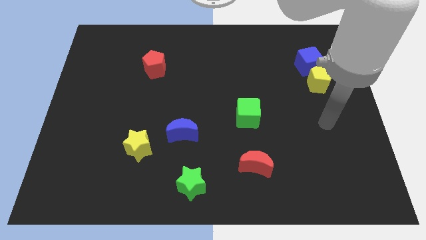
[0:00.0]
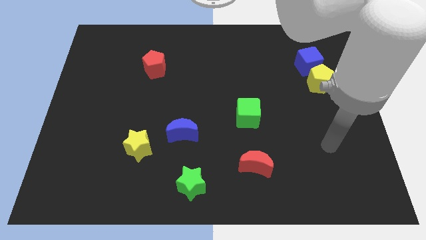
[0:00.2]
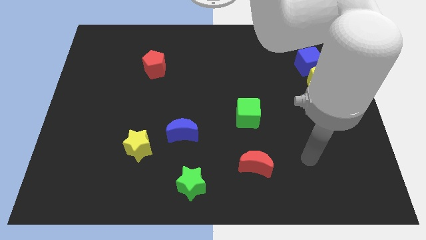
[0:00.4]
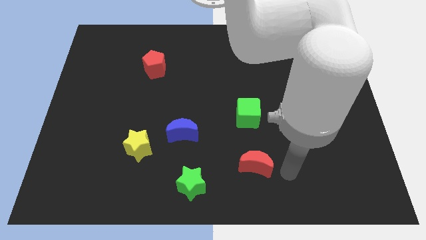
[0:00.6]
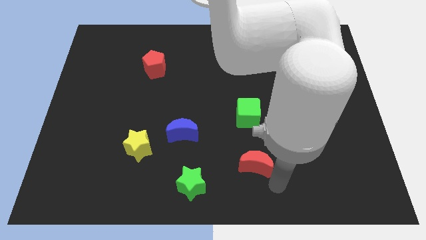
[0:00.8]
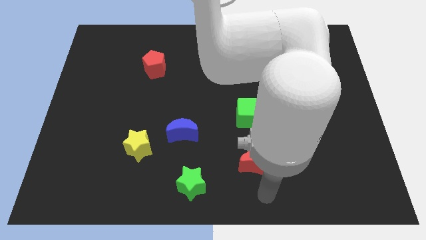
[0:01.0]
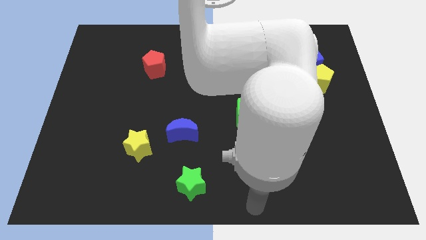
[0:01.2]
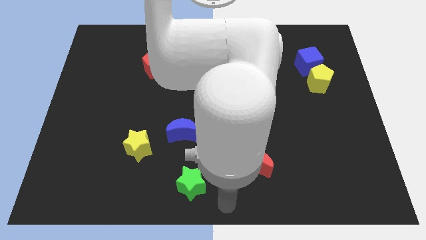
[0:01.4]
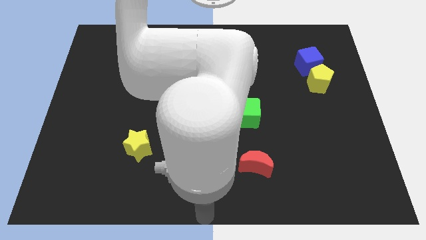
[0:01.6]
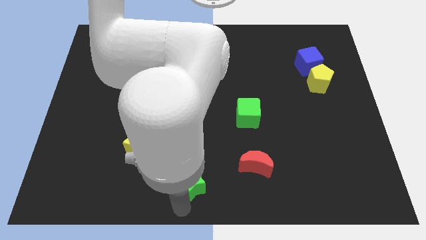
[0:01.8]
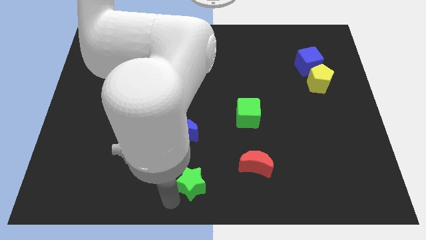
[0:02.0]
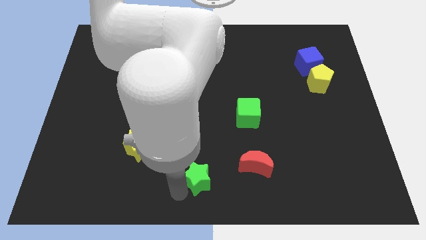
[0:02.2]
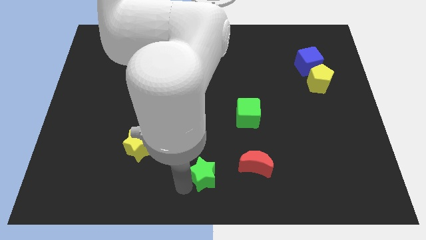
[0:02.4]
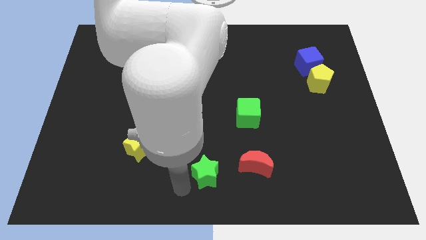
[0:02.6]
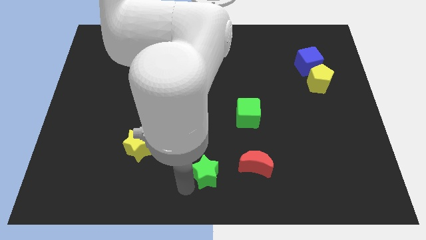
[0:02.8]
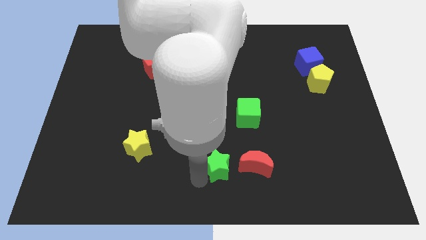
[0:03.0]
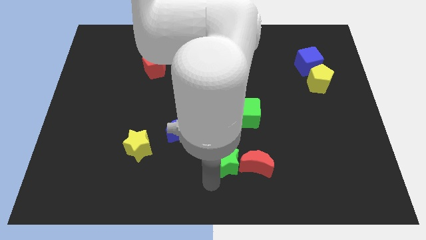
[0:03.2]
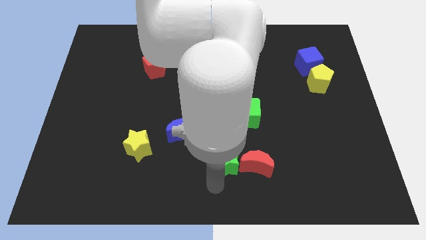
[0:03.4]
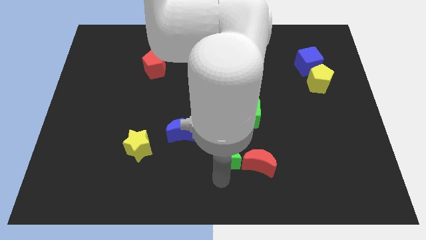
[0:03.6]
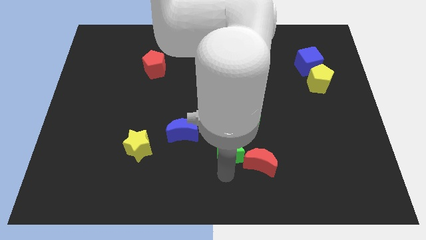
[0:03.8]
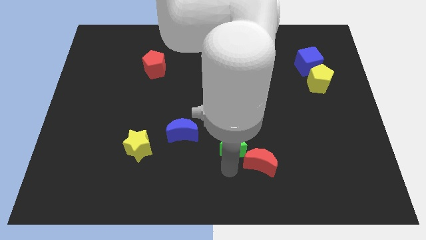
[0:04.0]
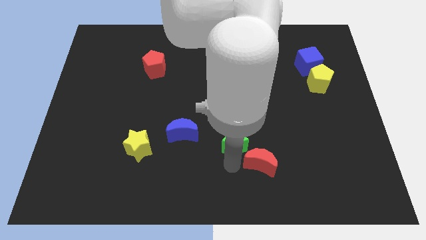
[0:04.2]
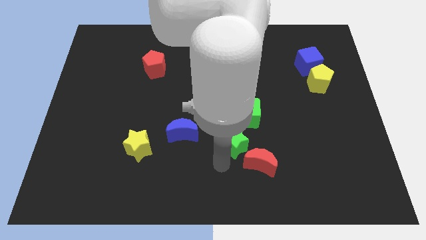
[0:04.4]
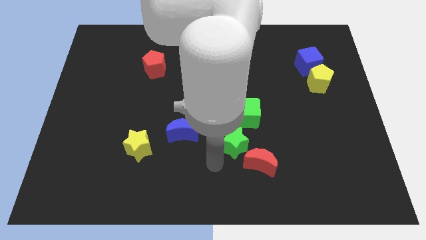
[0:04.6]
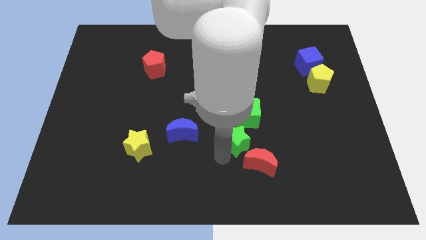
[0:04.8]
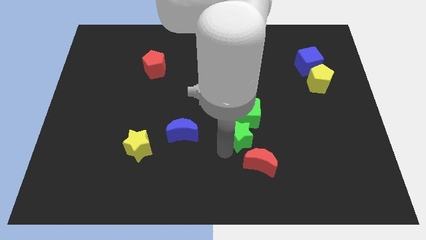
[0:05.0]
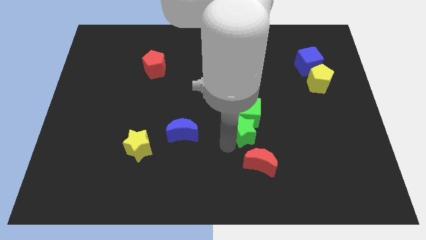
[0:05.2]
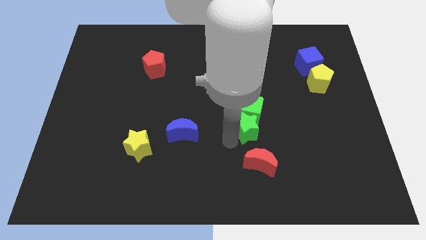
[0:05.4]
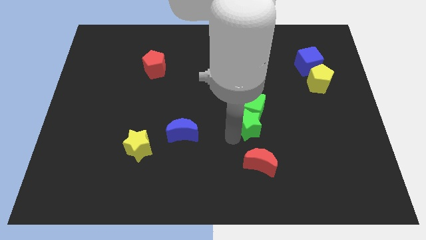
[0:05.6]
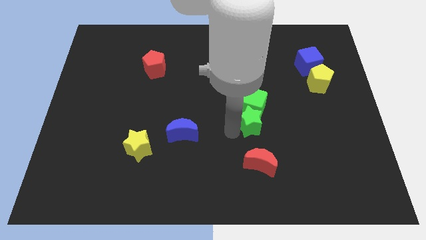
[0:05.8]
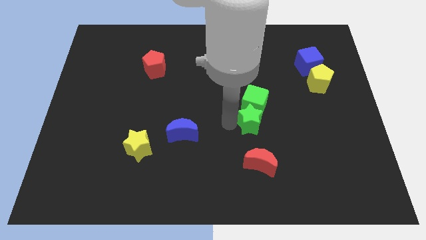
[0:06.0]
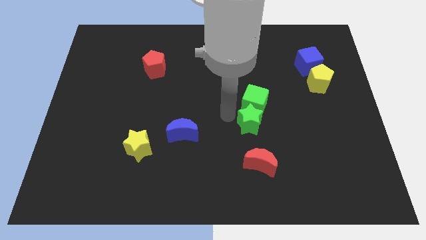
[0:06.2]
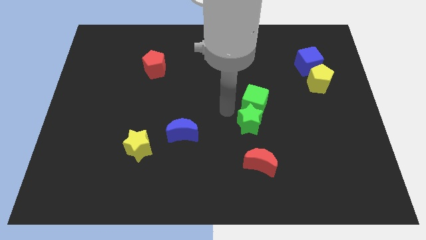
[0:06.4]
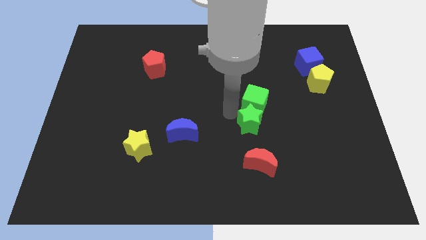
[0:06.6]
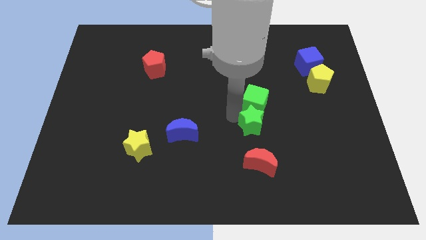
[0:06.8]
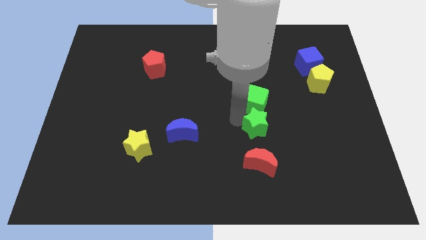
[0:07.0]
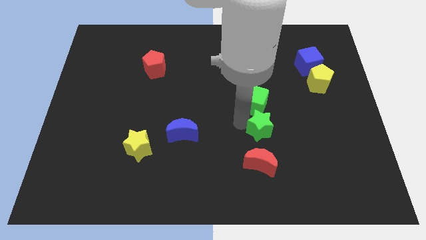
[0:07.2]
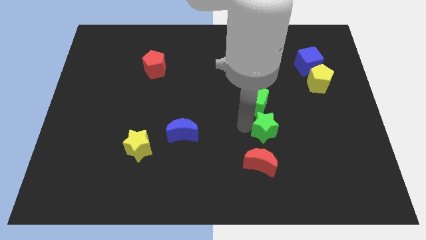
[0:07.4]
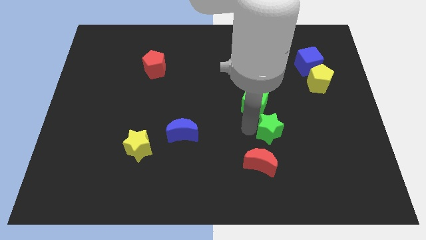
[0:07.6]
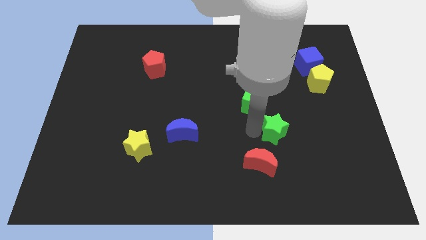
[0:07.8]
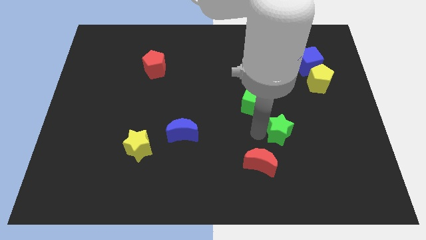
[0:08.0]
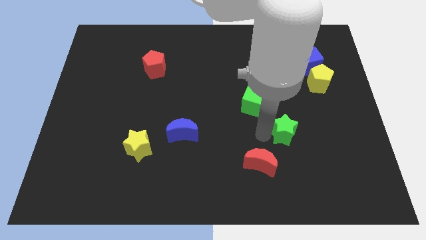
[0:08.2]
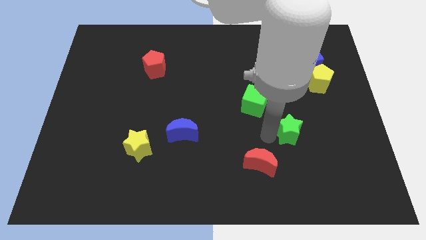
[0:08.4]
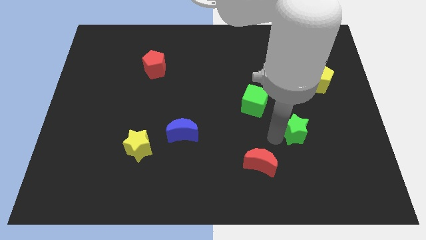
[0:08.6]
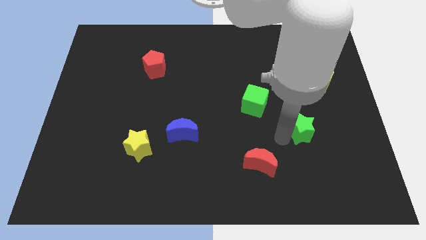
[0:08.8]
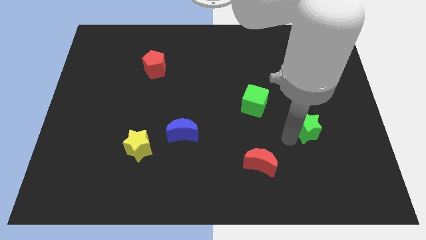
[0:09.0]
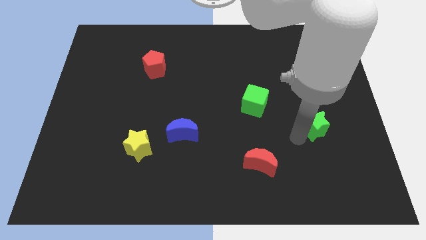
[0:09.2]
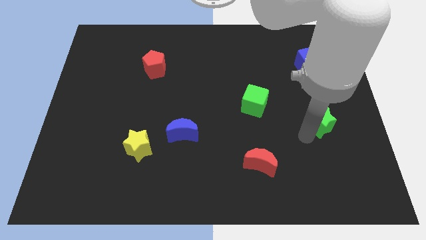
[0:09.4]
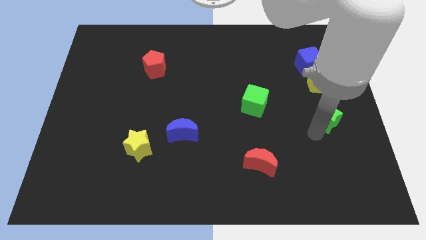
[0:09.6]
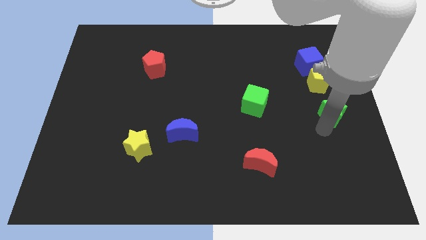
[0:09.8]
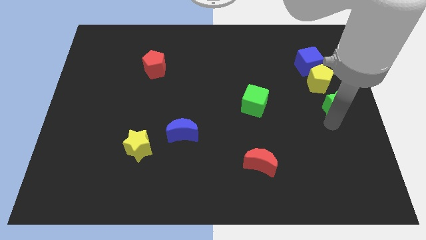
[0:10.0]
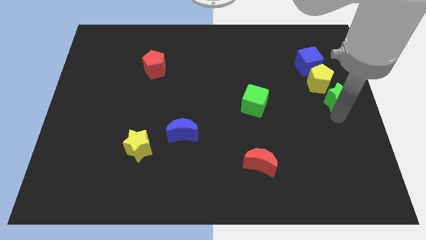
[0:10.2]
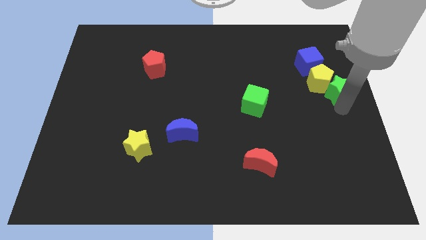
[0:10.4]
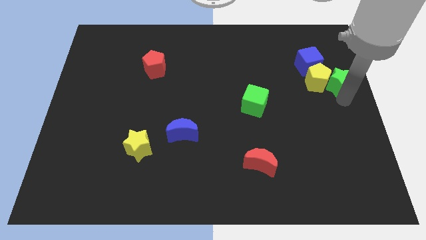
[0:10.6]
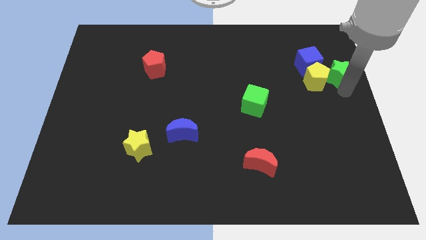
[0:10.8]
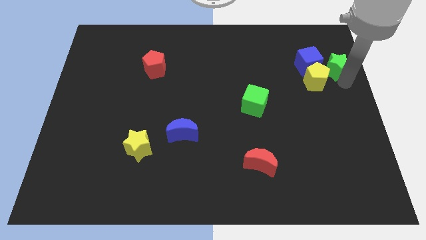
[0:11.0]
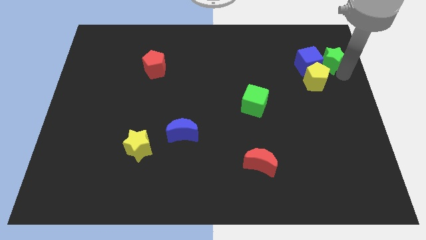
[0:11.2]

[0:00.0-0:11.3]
slide the green star close to the blue cube

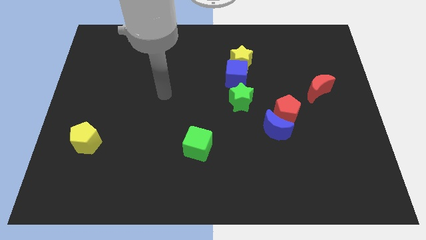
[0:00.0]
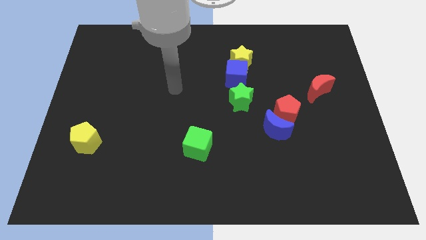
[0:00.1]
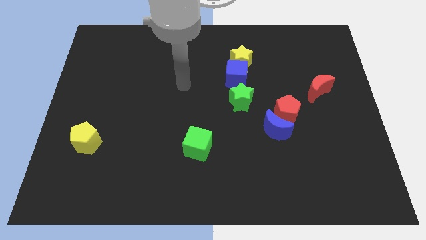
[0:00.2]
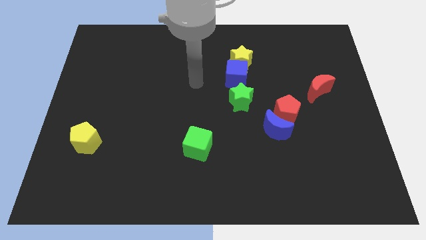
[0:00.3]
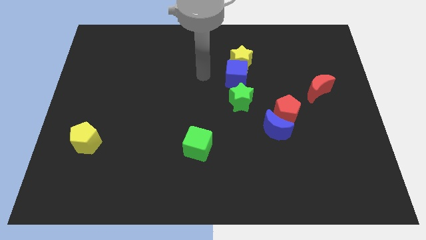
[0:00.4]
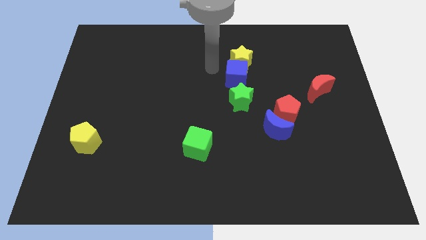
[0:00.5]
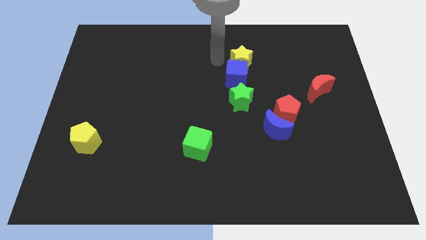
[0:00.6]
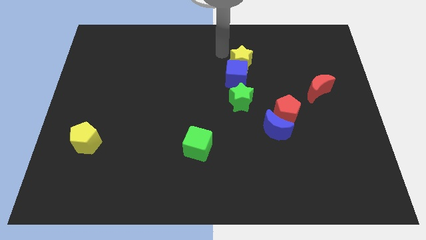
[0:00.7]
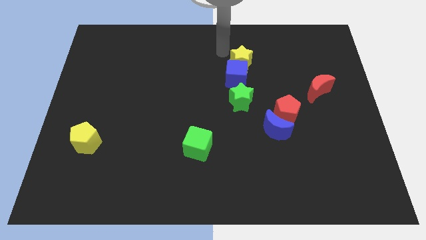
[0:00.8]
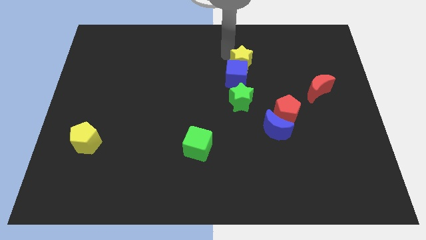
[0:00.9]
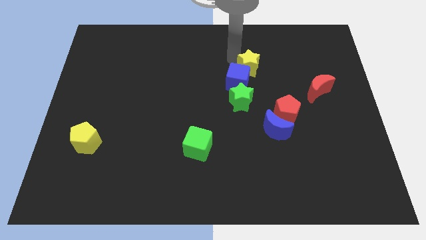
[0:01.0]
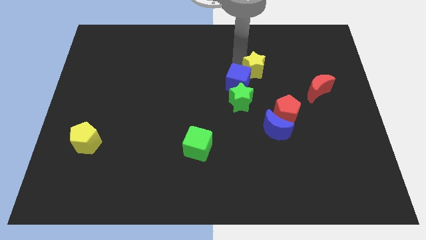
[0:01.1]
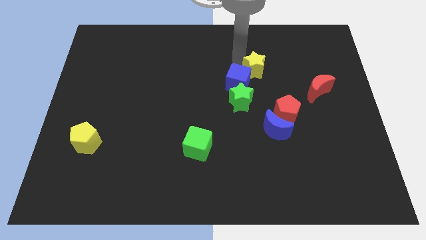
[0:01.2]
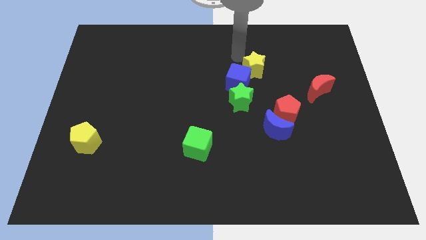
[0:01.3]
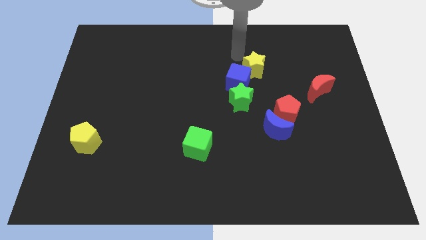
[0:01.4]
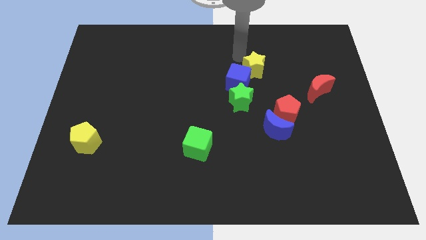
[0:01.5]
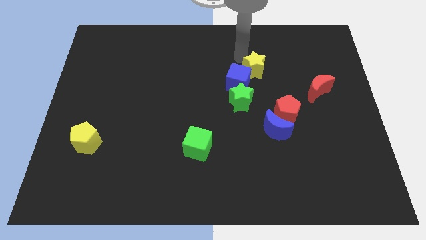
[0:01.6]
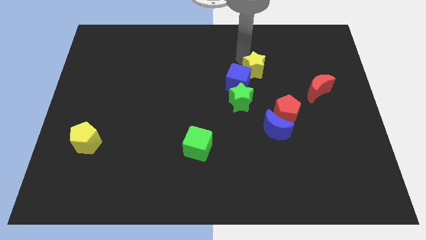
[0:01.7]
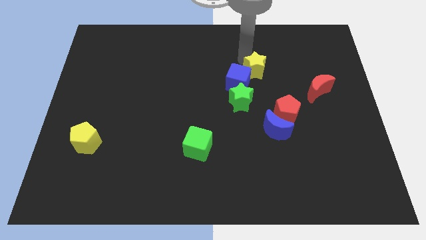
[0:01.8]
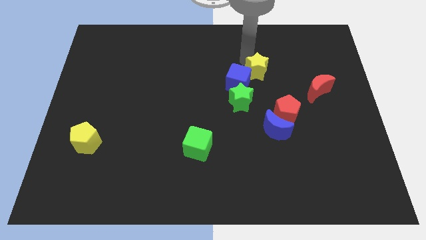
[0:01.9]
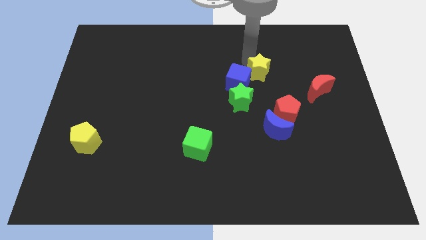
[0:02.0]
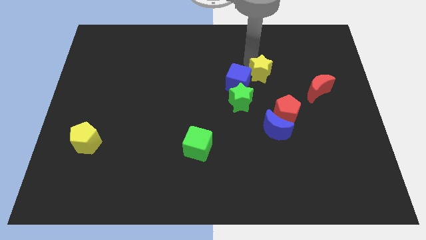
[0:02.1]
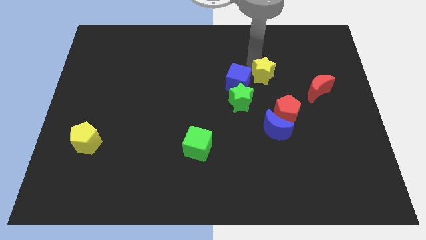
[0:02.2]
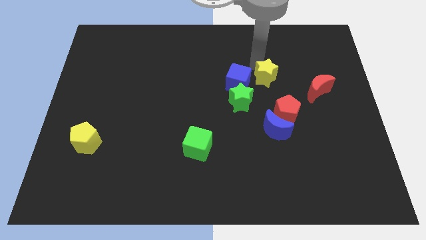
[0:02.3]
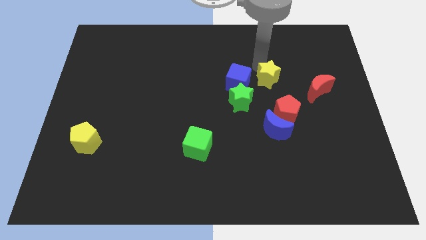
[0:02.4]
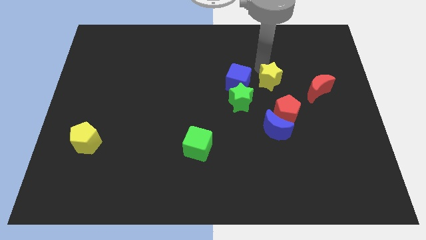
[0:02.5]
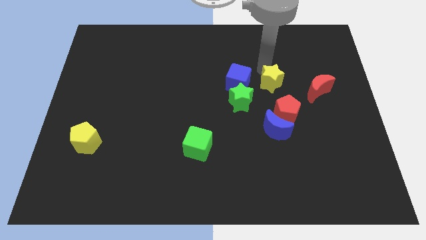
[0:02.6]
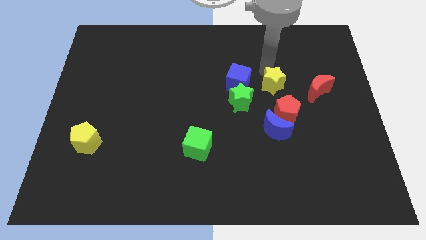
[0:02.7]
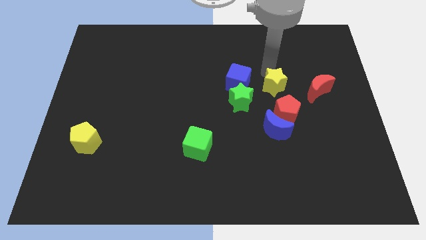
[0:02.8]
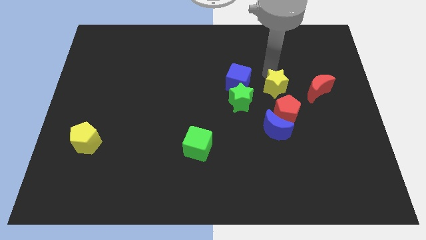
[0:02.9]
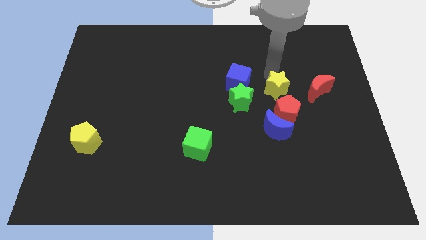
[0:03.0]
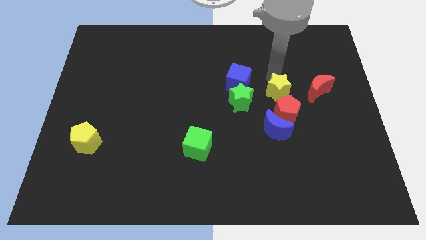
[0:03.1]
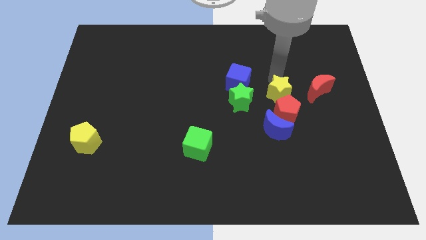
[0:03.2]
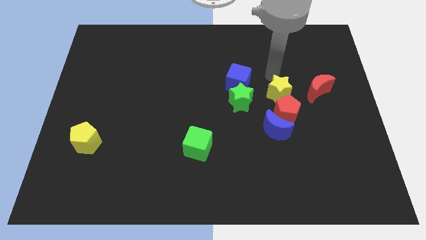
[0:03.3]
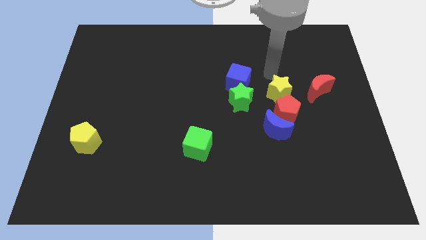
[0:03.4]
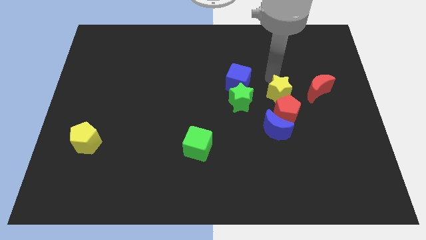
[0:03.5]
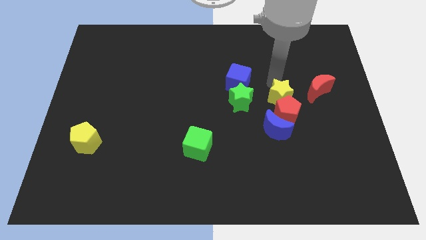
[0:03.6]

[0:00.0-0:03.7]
slide the yellow star towards the red pentagon
